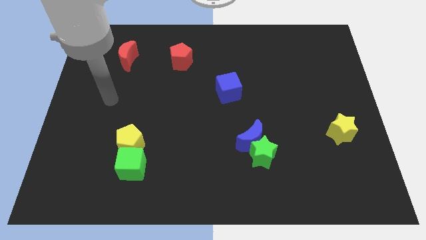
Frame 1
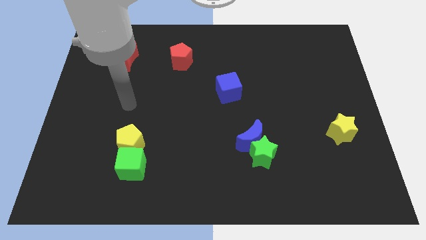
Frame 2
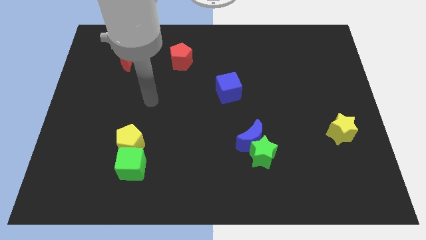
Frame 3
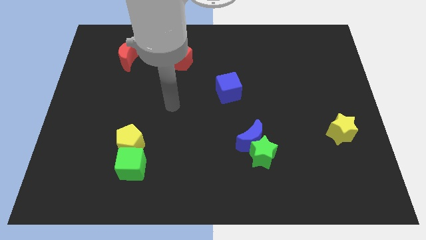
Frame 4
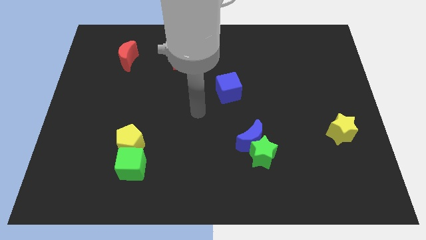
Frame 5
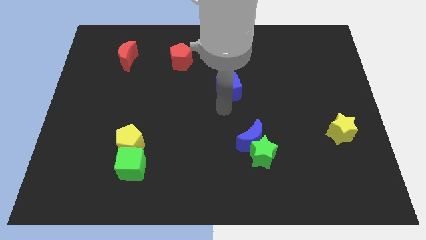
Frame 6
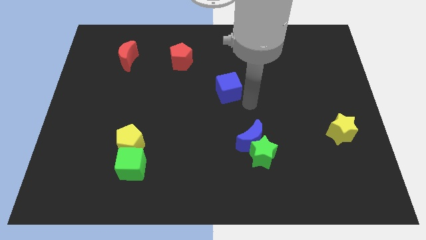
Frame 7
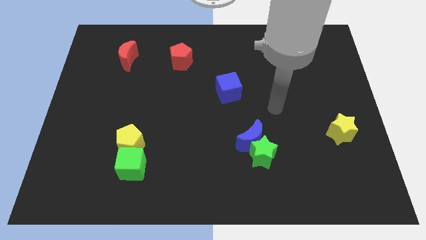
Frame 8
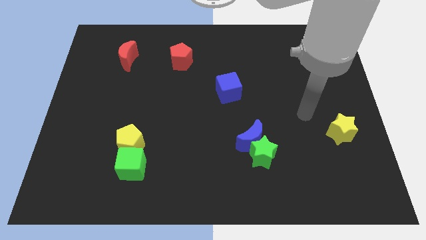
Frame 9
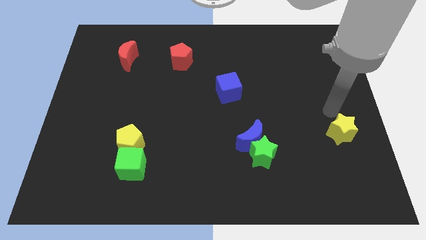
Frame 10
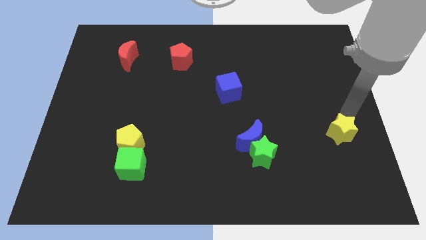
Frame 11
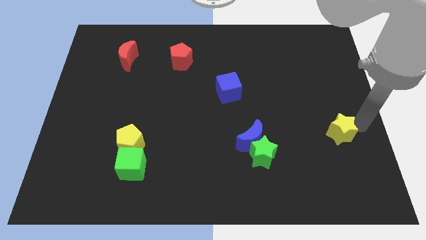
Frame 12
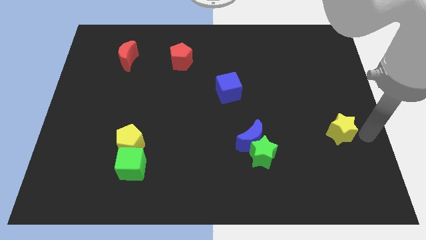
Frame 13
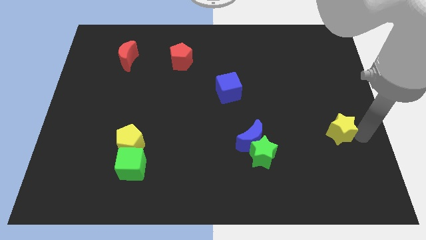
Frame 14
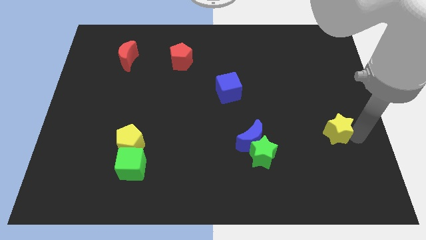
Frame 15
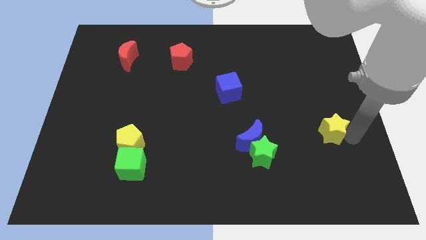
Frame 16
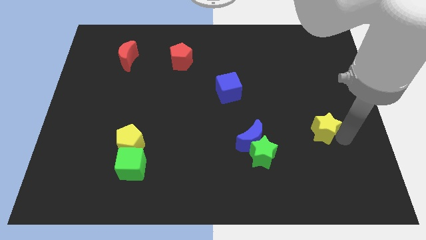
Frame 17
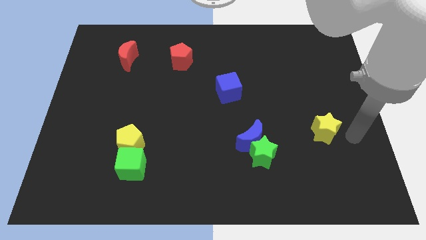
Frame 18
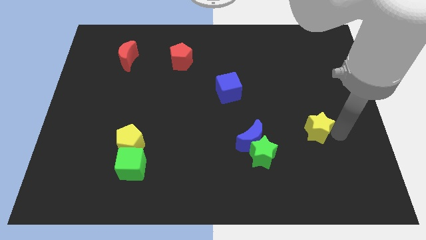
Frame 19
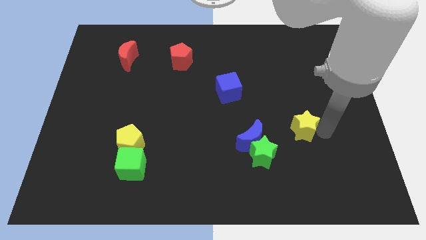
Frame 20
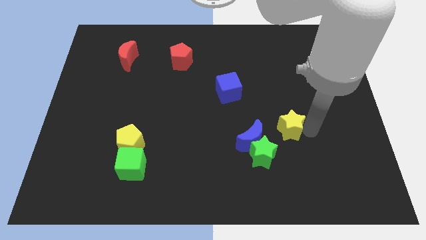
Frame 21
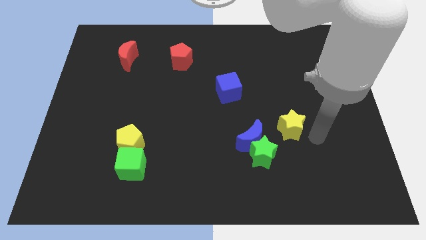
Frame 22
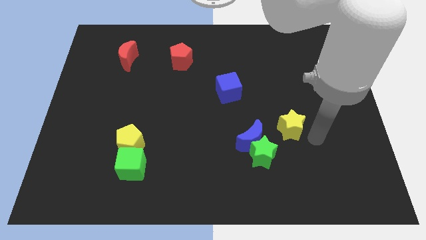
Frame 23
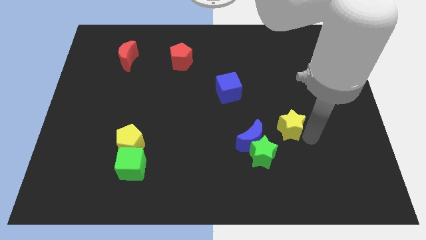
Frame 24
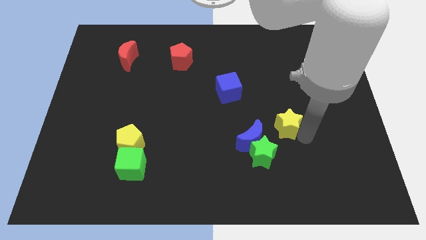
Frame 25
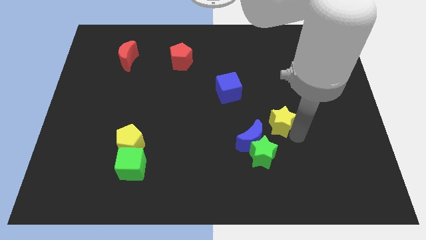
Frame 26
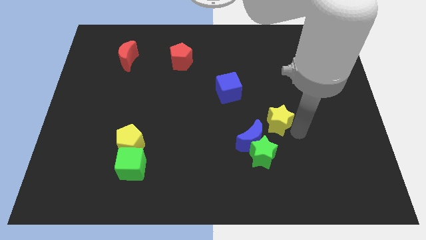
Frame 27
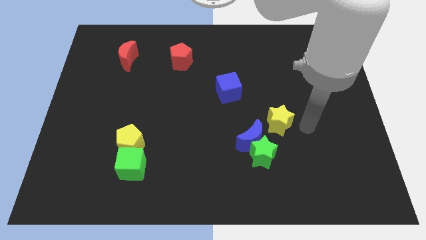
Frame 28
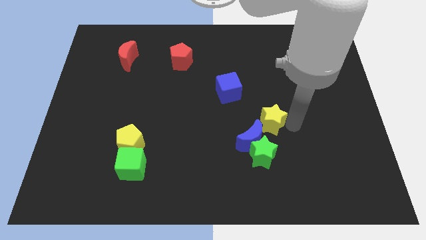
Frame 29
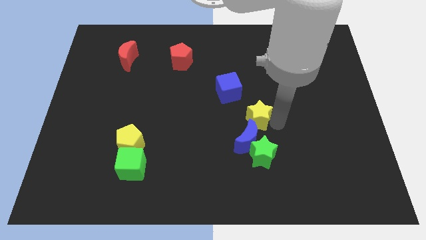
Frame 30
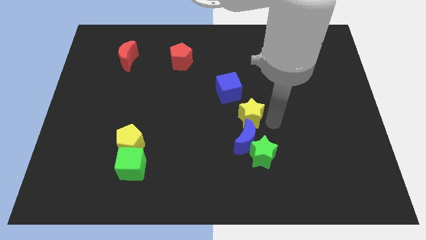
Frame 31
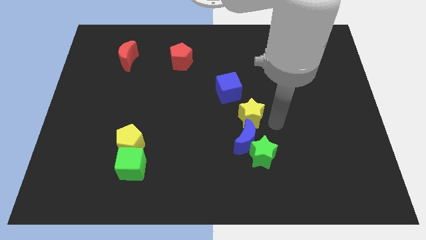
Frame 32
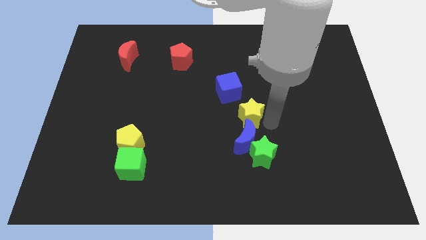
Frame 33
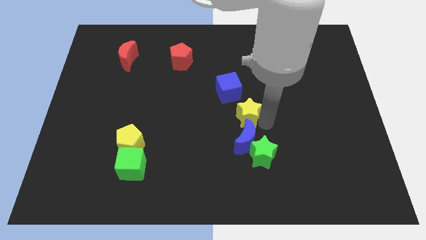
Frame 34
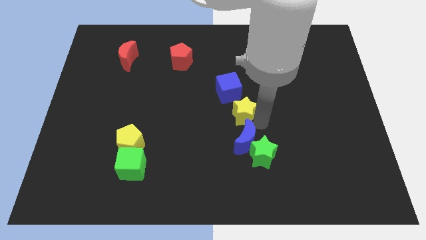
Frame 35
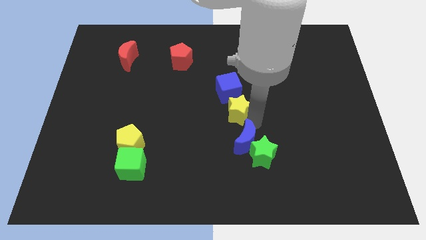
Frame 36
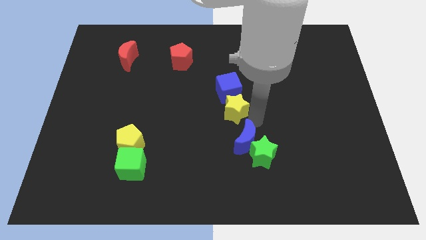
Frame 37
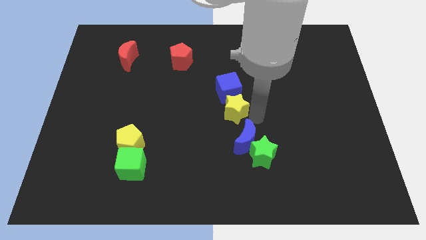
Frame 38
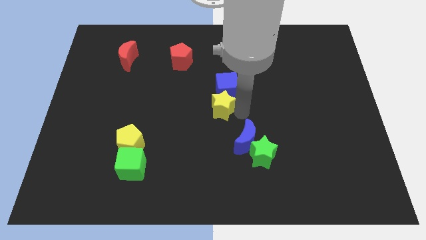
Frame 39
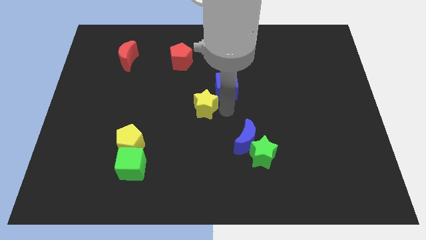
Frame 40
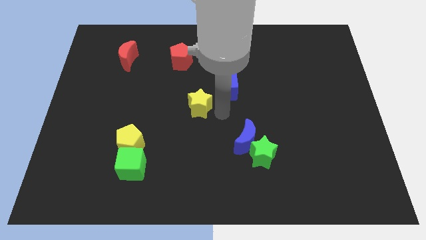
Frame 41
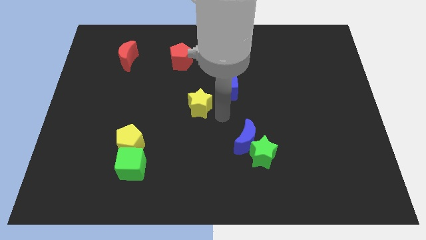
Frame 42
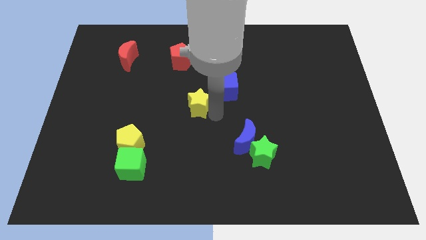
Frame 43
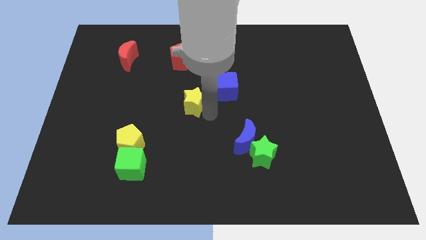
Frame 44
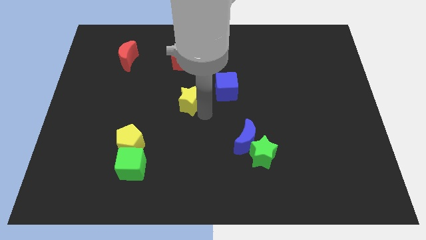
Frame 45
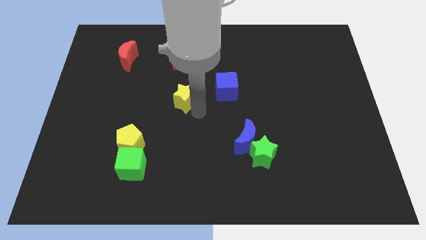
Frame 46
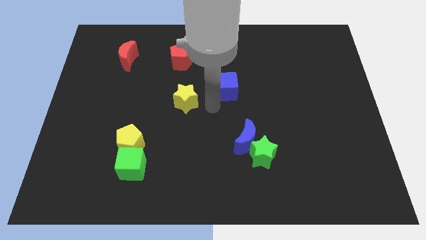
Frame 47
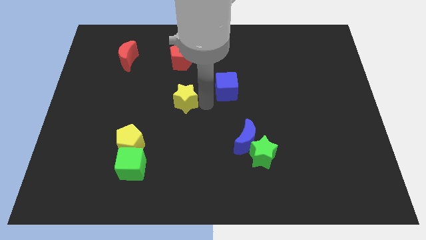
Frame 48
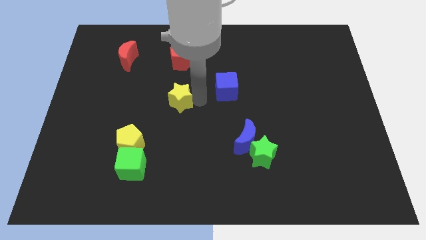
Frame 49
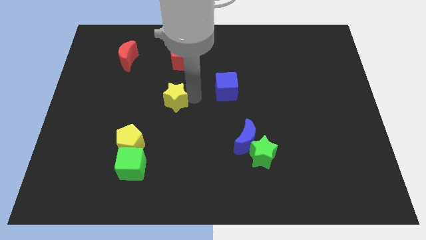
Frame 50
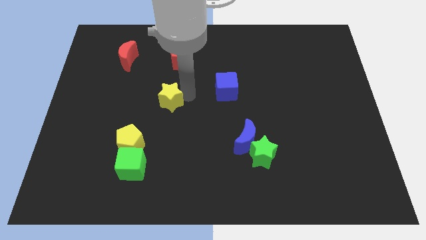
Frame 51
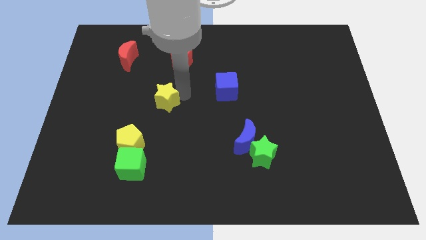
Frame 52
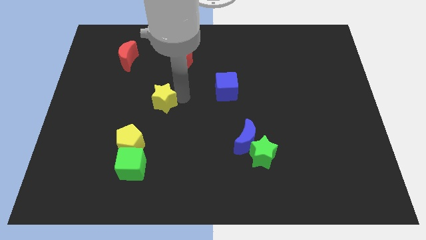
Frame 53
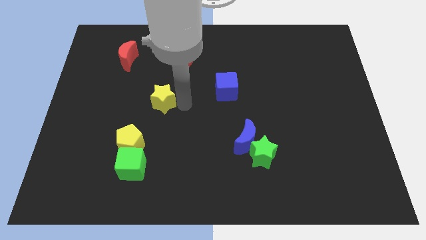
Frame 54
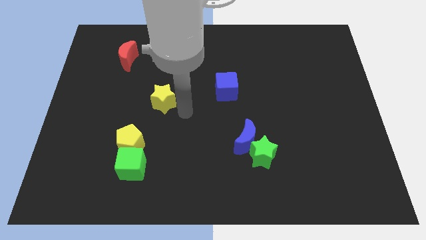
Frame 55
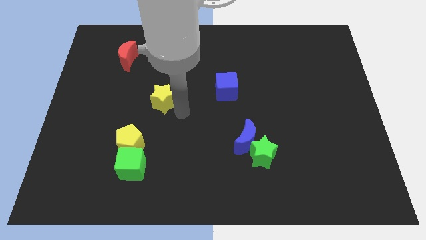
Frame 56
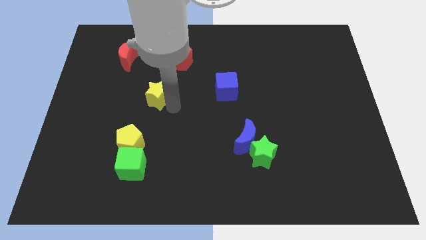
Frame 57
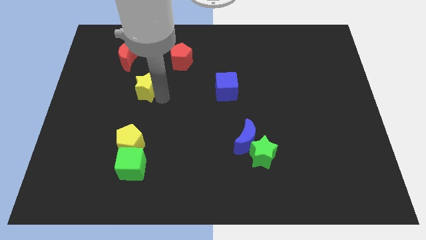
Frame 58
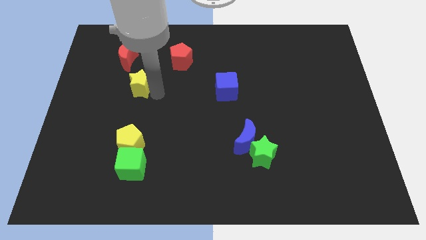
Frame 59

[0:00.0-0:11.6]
put the yellow star below the red moon

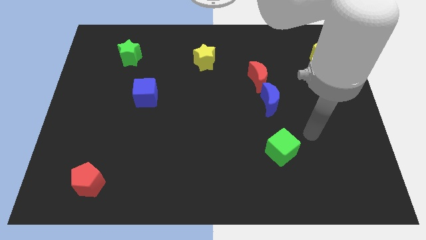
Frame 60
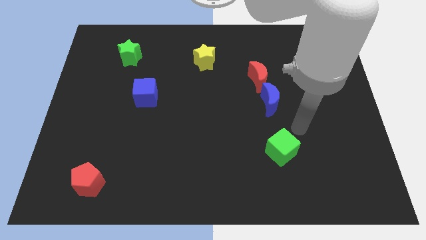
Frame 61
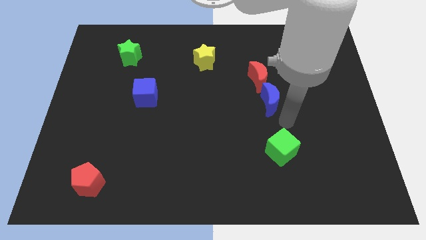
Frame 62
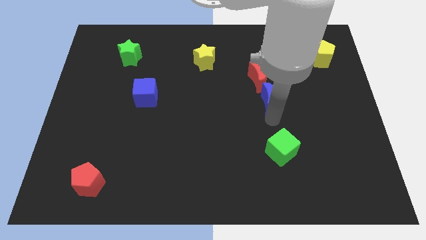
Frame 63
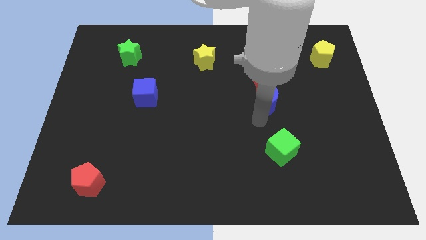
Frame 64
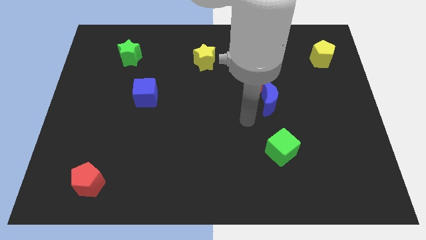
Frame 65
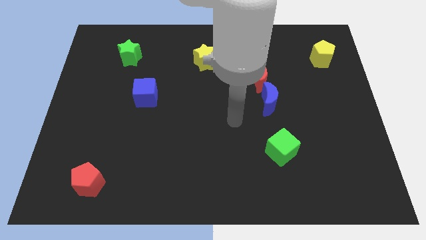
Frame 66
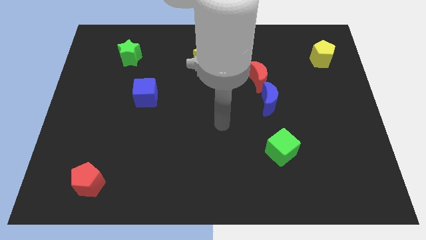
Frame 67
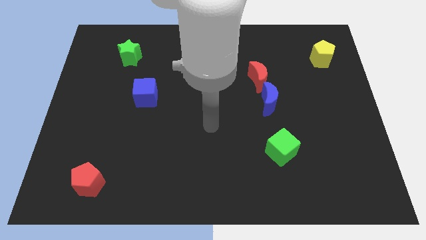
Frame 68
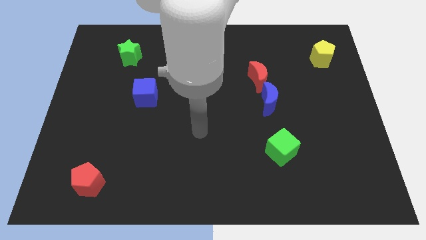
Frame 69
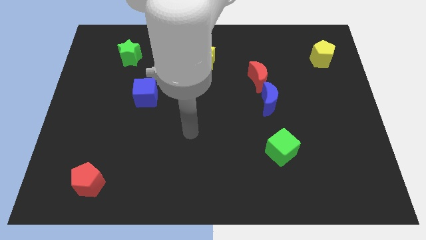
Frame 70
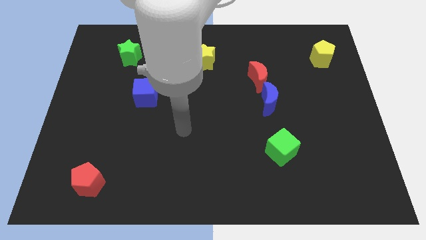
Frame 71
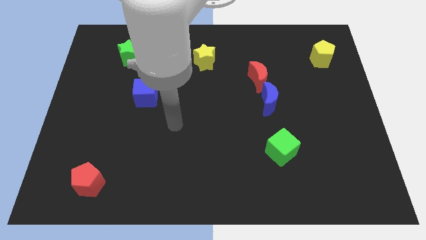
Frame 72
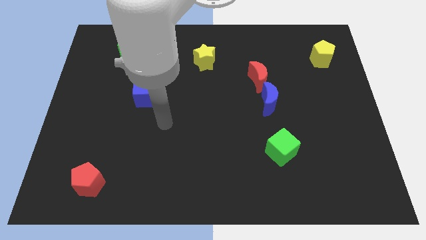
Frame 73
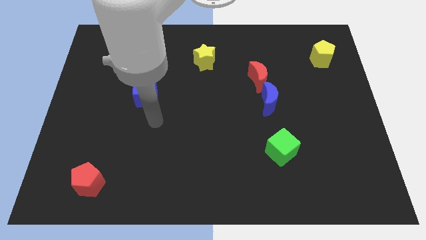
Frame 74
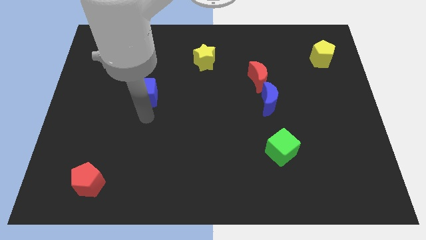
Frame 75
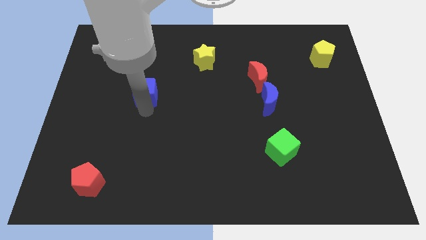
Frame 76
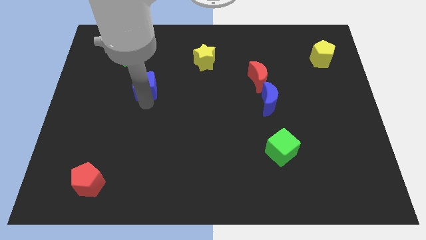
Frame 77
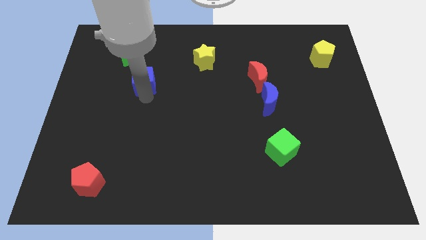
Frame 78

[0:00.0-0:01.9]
put the blue cube to the bottom right side of the green star
